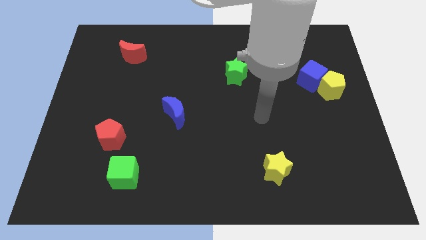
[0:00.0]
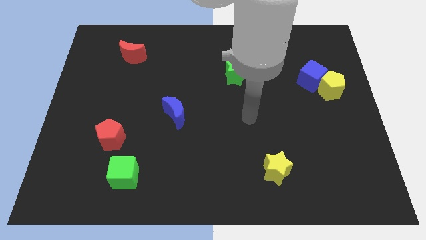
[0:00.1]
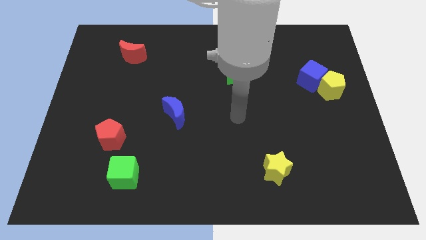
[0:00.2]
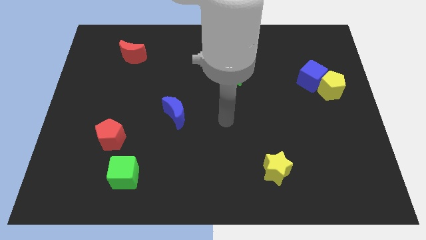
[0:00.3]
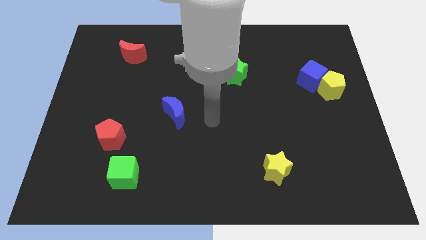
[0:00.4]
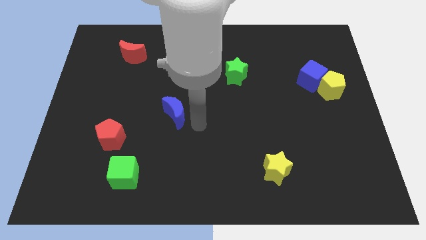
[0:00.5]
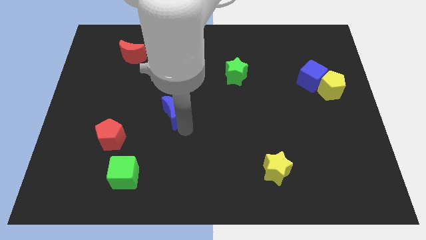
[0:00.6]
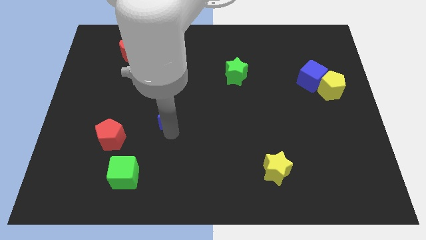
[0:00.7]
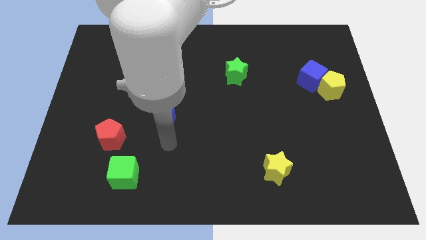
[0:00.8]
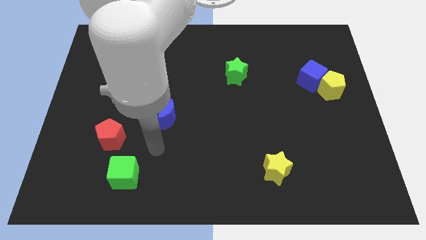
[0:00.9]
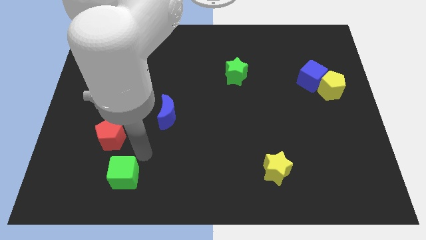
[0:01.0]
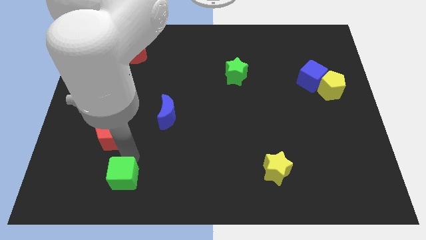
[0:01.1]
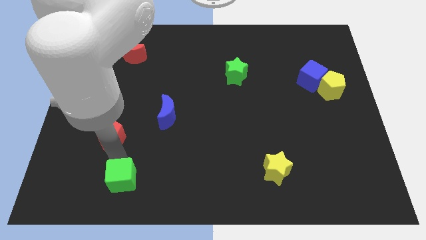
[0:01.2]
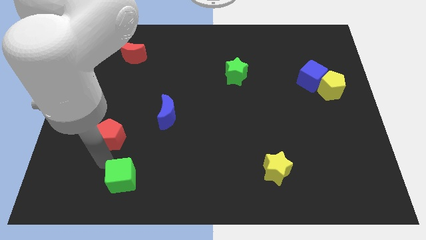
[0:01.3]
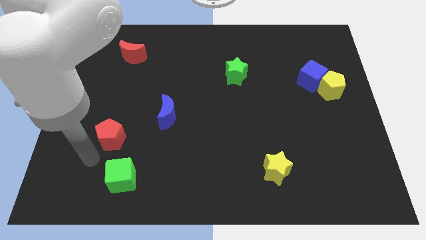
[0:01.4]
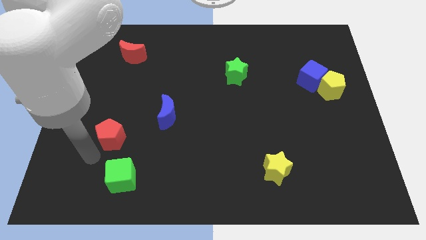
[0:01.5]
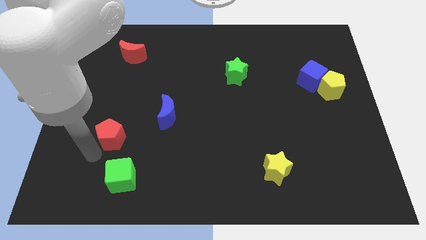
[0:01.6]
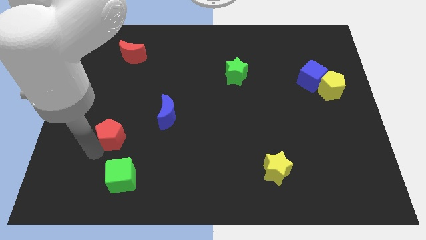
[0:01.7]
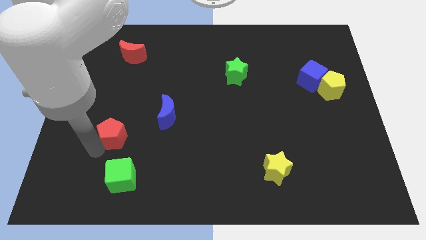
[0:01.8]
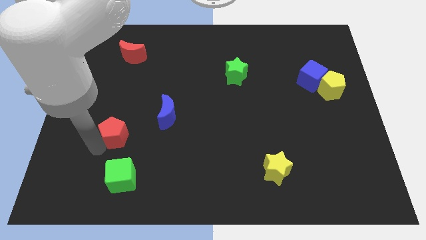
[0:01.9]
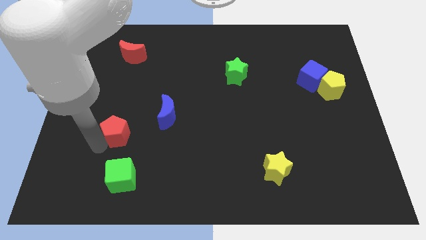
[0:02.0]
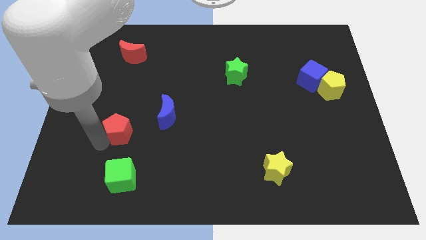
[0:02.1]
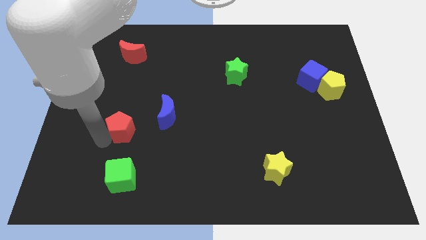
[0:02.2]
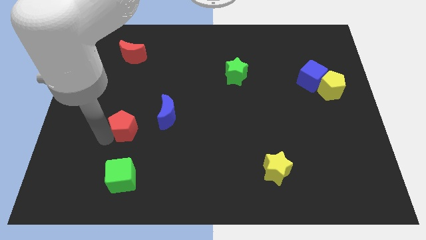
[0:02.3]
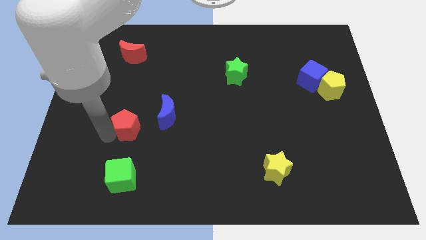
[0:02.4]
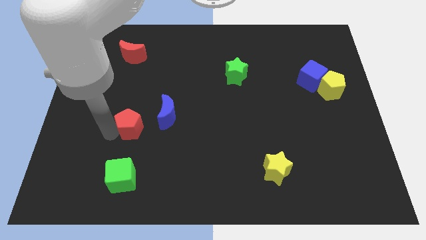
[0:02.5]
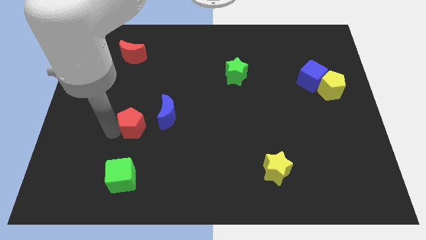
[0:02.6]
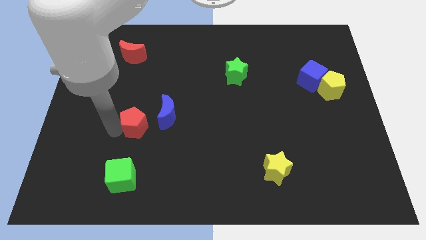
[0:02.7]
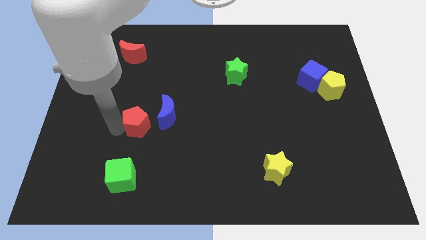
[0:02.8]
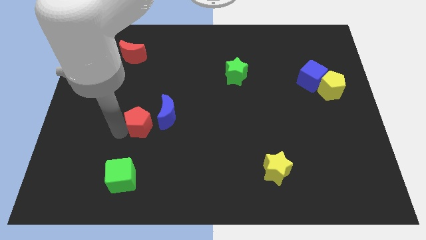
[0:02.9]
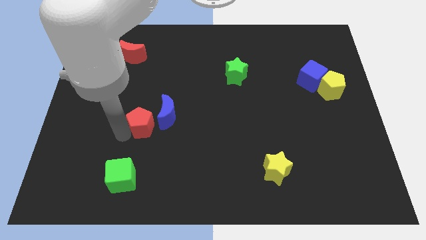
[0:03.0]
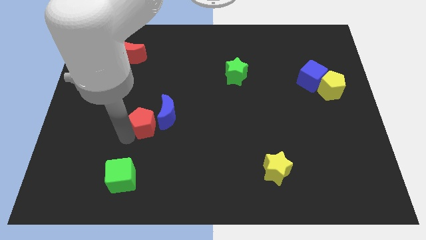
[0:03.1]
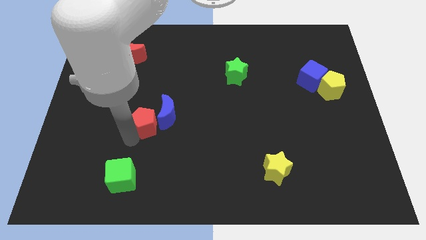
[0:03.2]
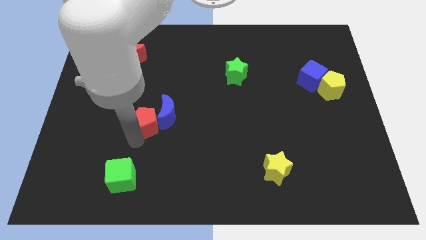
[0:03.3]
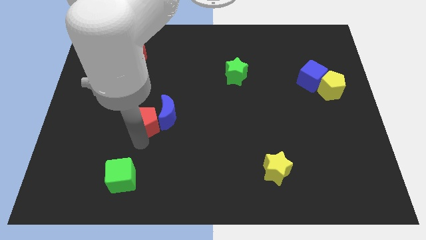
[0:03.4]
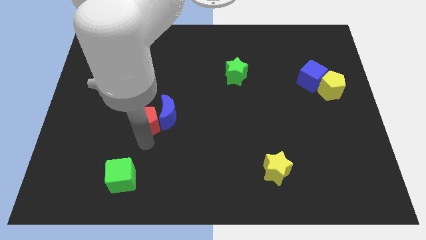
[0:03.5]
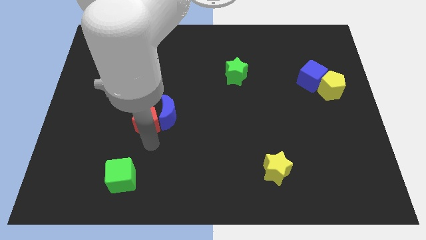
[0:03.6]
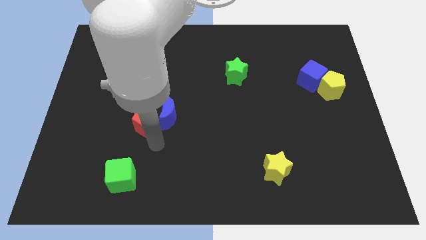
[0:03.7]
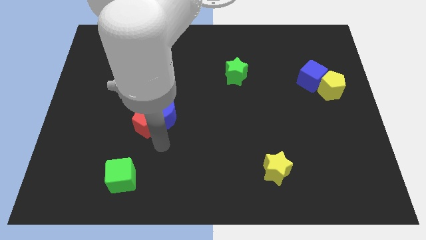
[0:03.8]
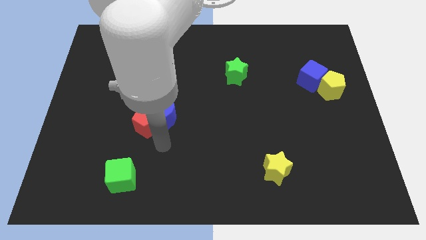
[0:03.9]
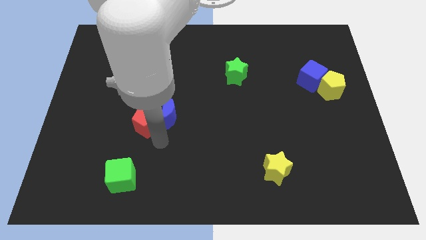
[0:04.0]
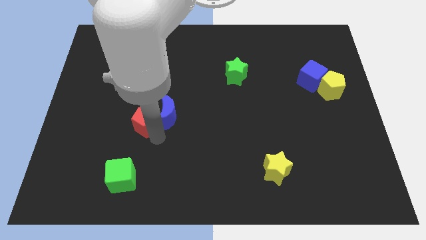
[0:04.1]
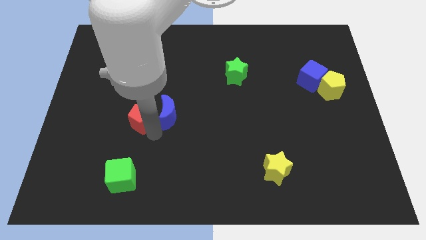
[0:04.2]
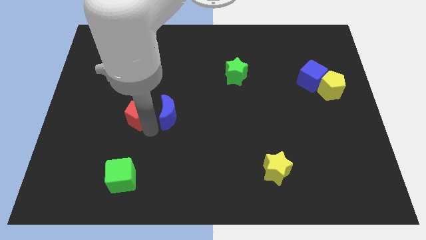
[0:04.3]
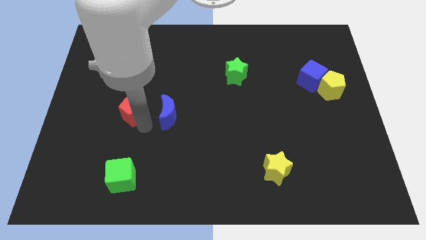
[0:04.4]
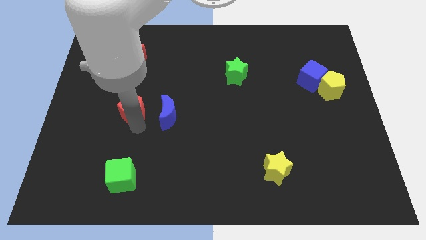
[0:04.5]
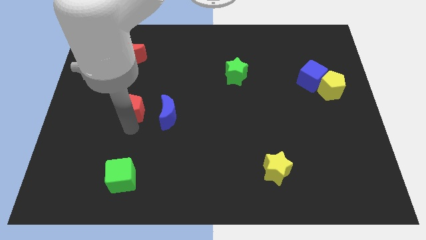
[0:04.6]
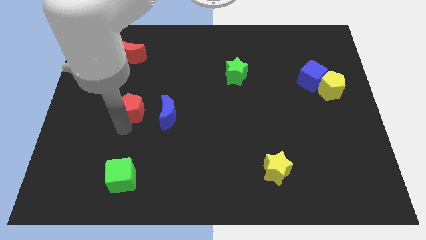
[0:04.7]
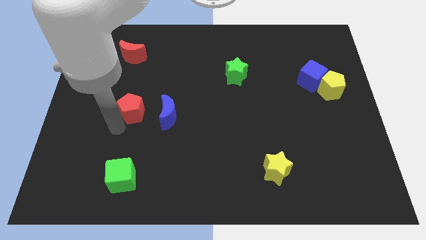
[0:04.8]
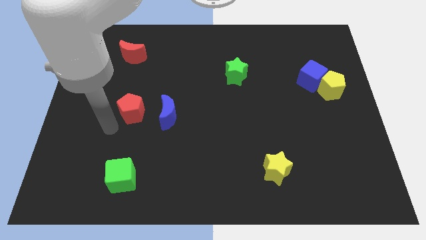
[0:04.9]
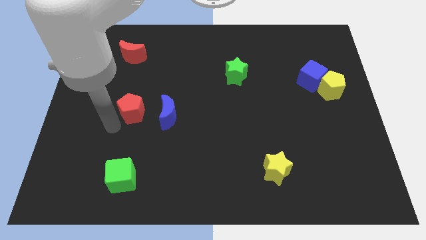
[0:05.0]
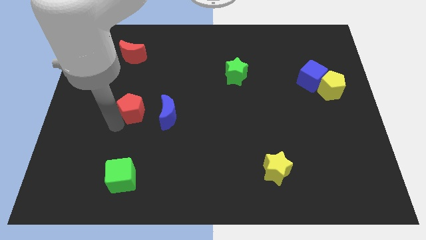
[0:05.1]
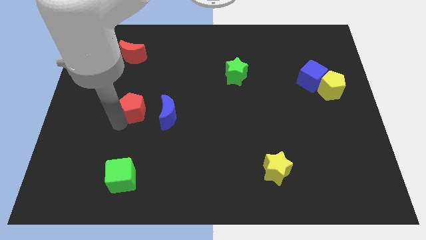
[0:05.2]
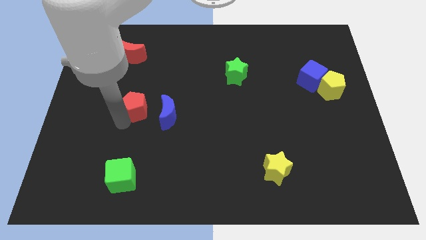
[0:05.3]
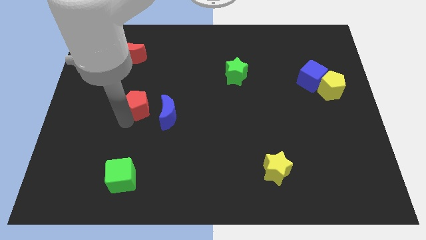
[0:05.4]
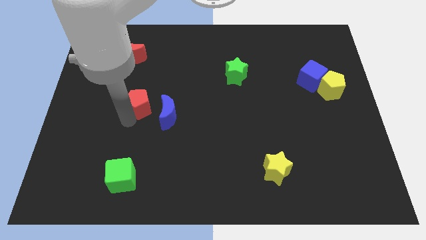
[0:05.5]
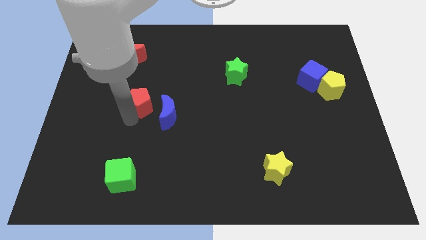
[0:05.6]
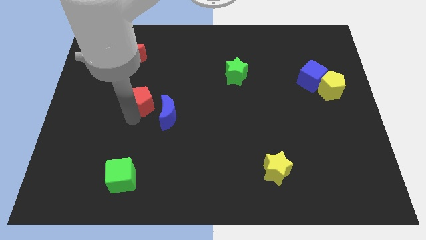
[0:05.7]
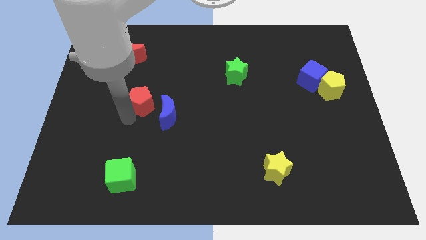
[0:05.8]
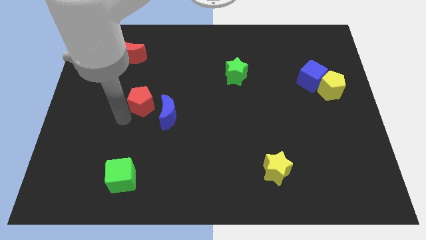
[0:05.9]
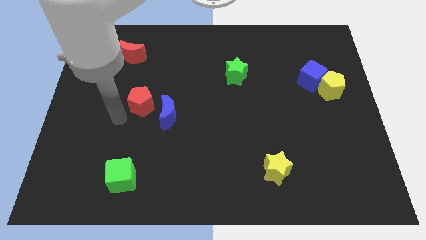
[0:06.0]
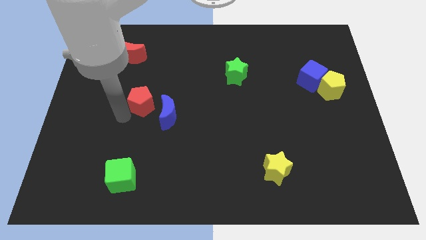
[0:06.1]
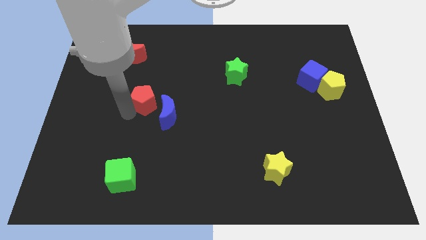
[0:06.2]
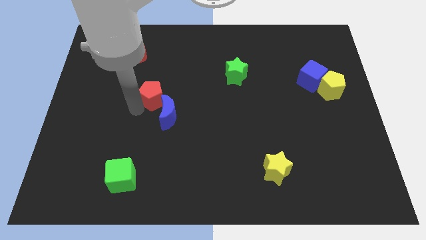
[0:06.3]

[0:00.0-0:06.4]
slide the red pentagon above the blue moon

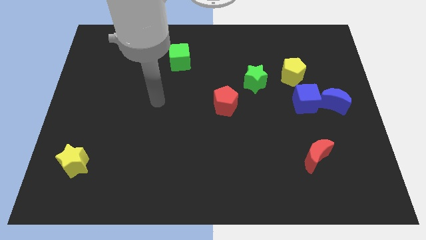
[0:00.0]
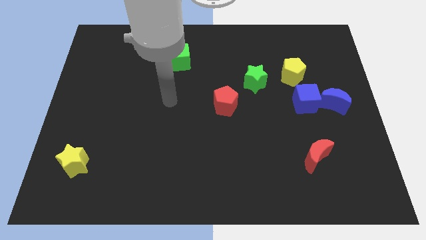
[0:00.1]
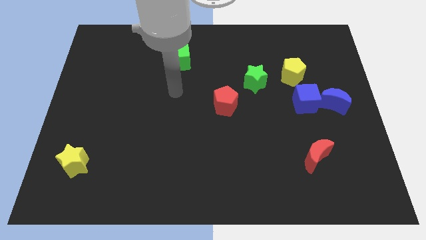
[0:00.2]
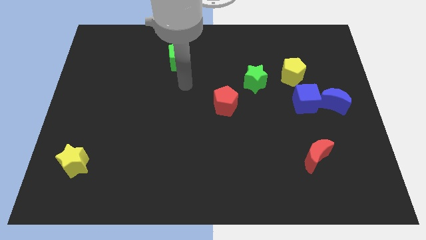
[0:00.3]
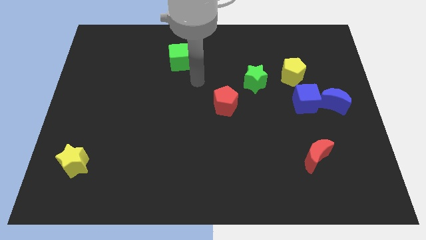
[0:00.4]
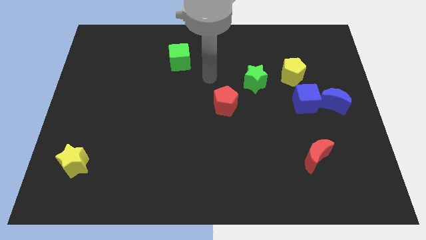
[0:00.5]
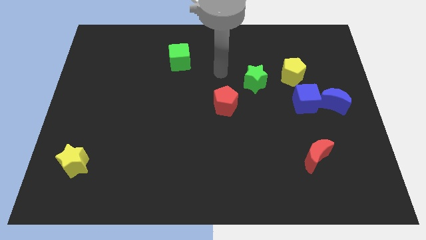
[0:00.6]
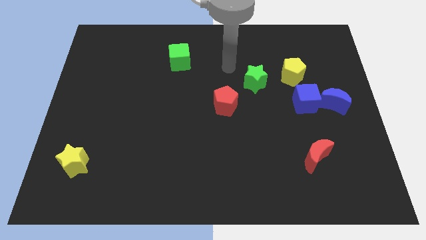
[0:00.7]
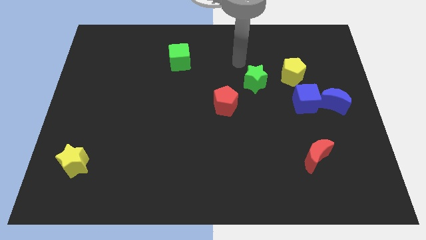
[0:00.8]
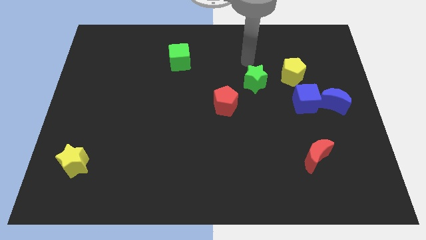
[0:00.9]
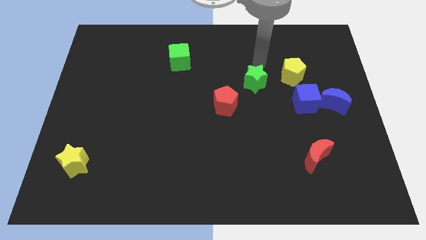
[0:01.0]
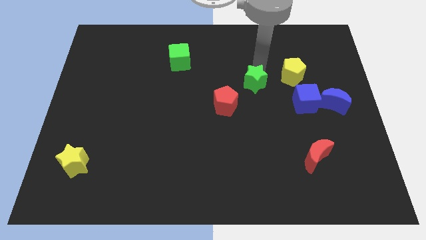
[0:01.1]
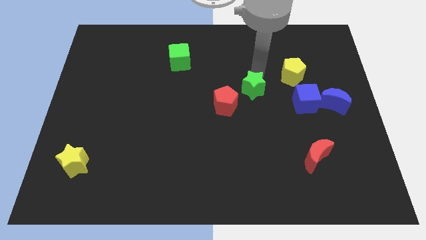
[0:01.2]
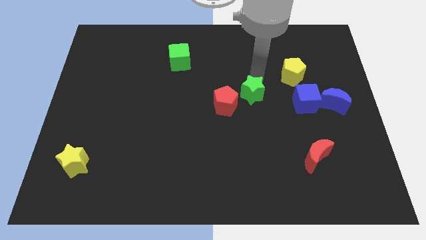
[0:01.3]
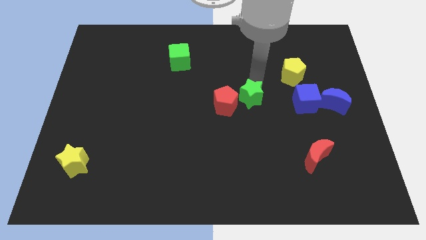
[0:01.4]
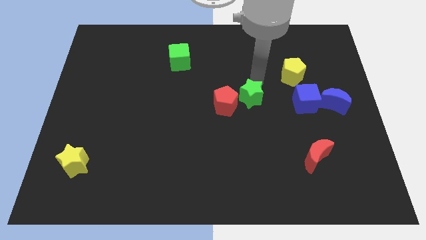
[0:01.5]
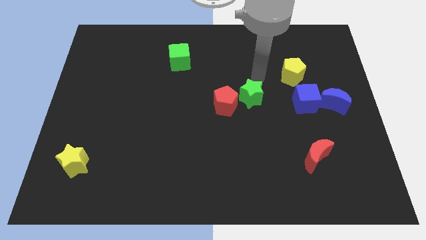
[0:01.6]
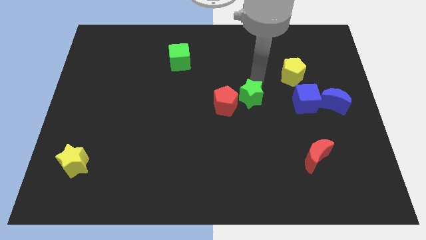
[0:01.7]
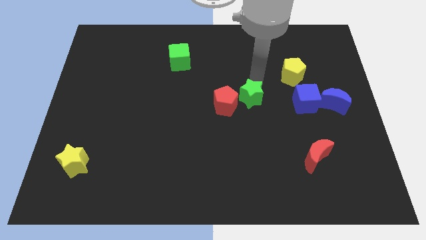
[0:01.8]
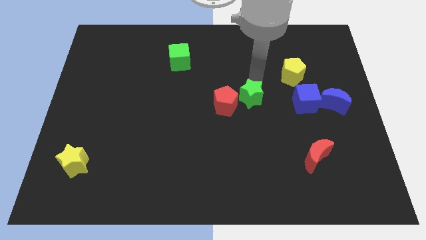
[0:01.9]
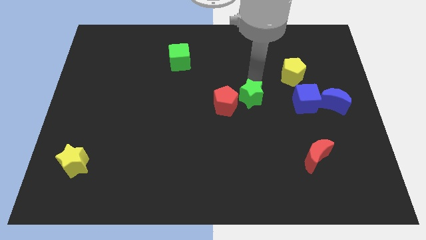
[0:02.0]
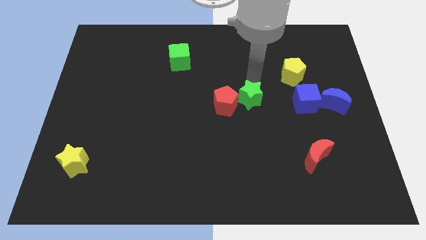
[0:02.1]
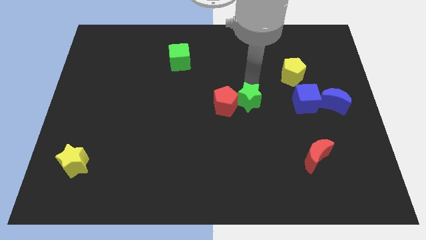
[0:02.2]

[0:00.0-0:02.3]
move the green star to the bottom right of the red pentagon
